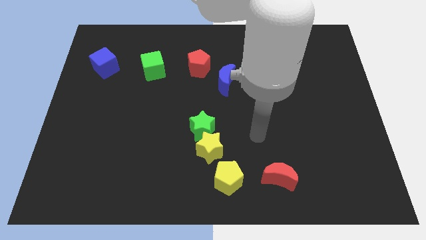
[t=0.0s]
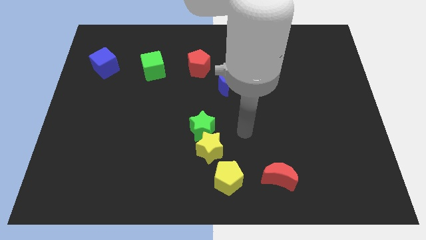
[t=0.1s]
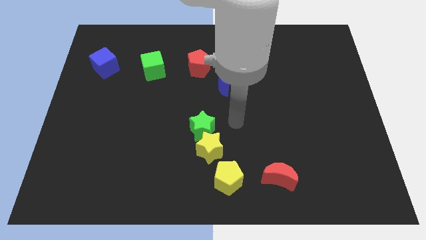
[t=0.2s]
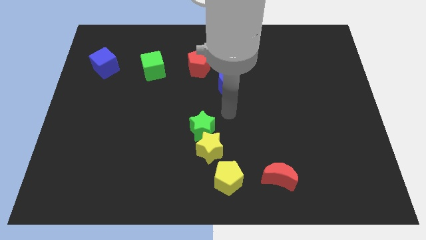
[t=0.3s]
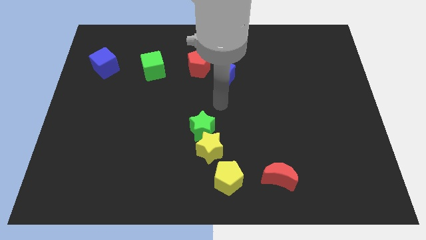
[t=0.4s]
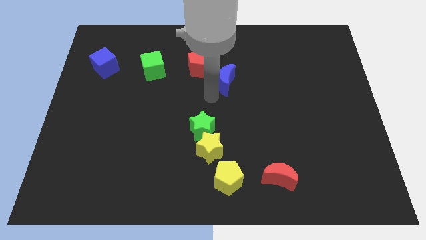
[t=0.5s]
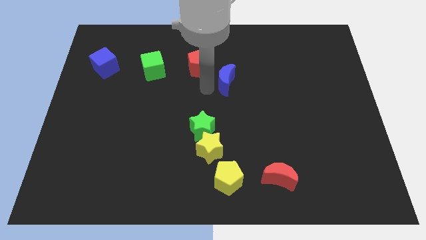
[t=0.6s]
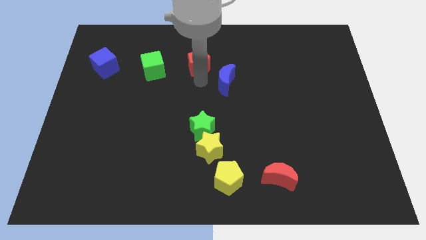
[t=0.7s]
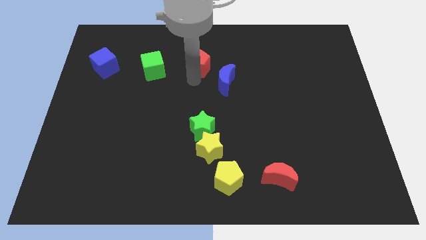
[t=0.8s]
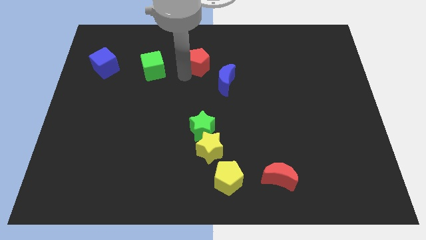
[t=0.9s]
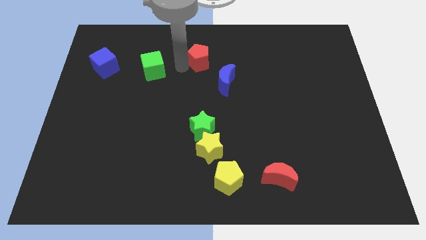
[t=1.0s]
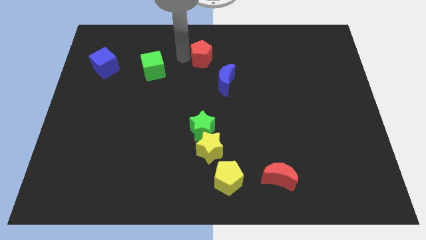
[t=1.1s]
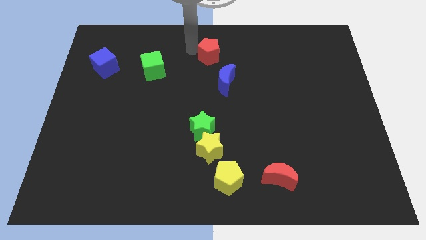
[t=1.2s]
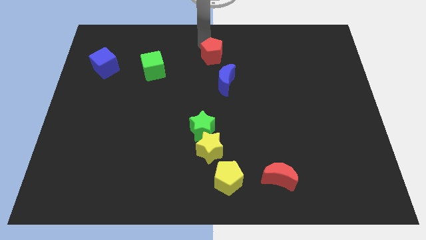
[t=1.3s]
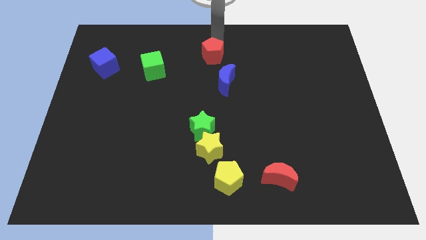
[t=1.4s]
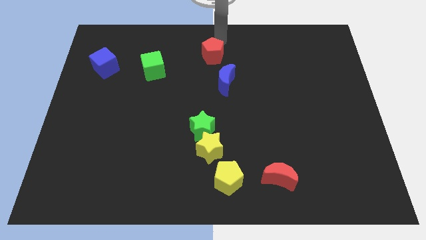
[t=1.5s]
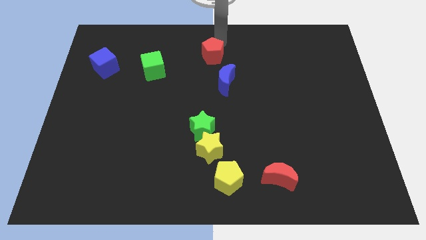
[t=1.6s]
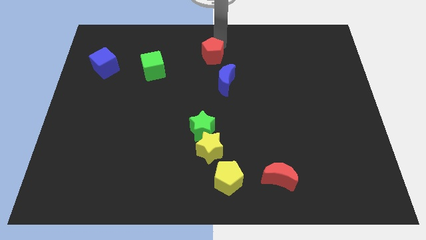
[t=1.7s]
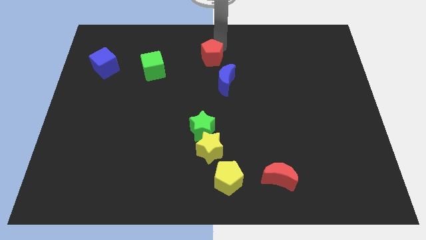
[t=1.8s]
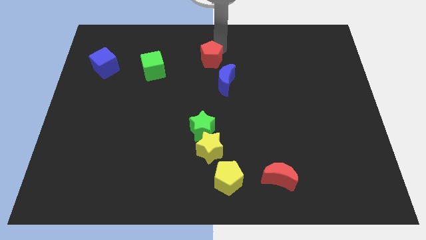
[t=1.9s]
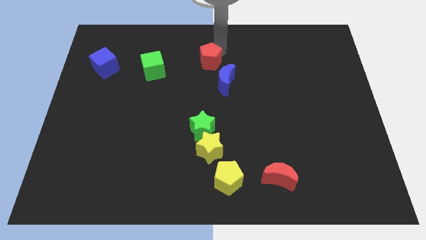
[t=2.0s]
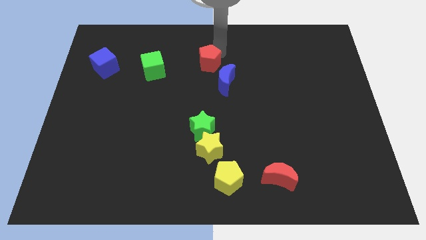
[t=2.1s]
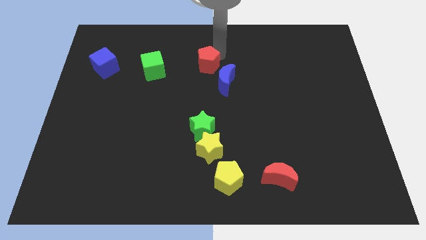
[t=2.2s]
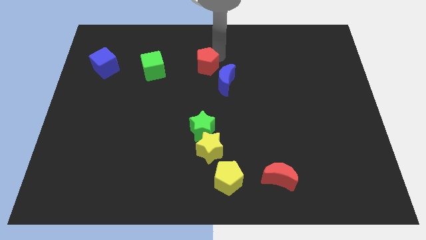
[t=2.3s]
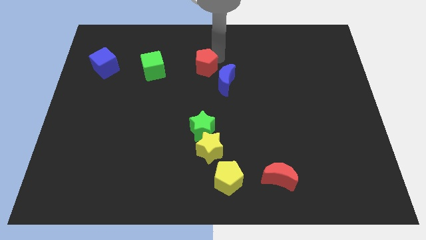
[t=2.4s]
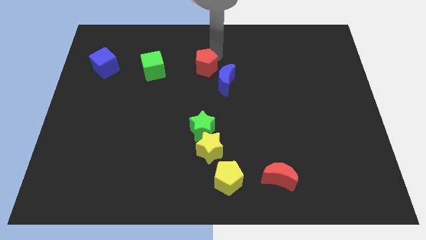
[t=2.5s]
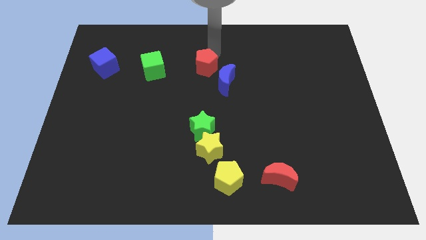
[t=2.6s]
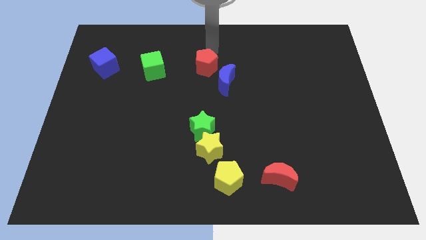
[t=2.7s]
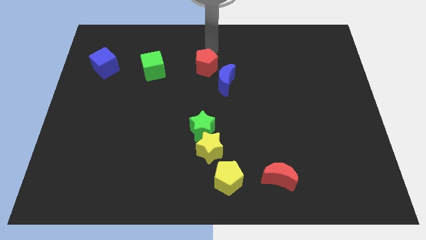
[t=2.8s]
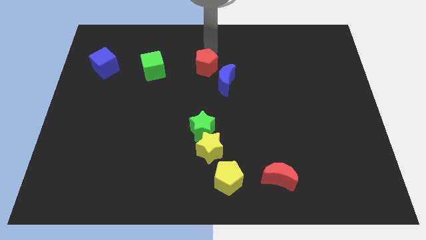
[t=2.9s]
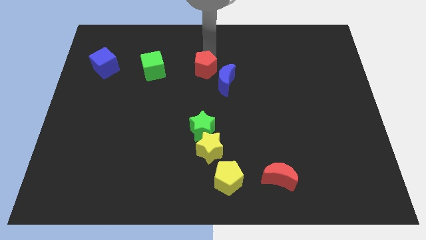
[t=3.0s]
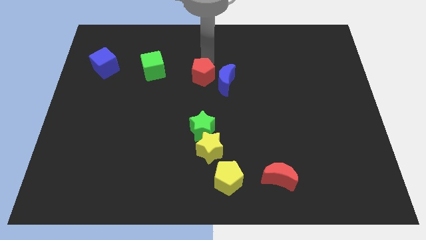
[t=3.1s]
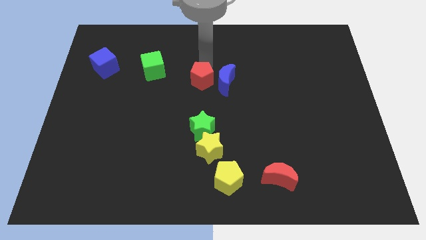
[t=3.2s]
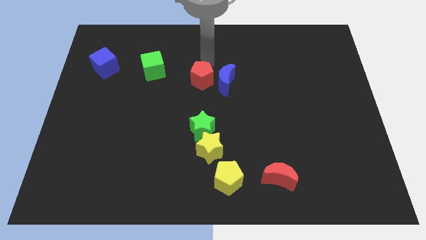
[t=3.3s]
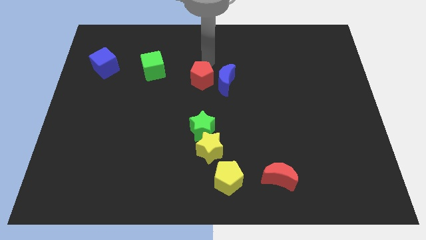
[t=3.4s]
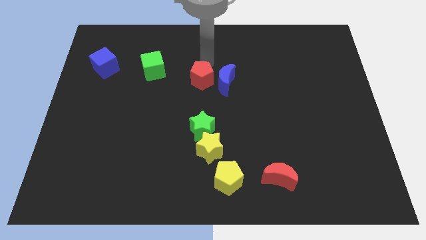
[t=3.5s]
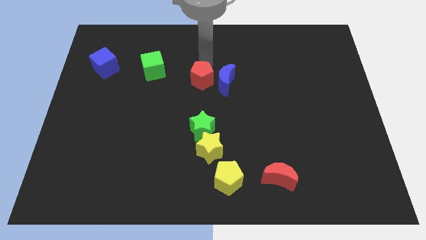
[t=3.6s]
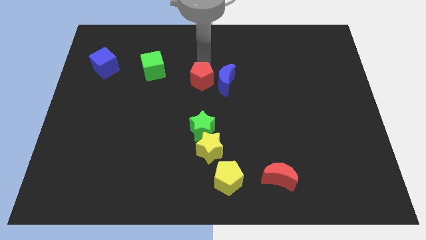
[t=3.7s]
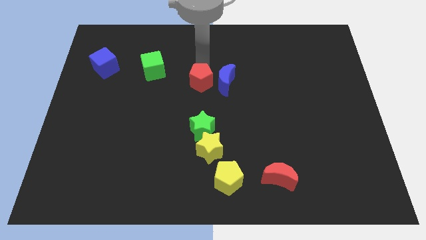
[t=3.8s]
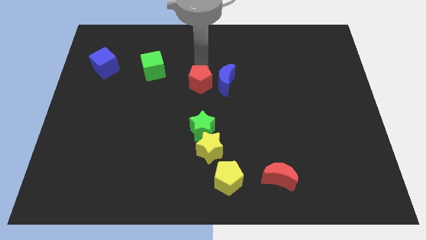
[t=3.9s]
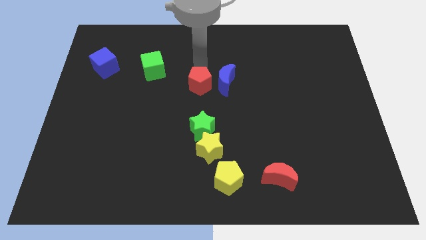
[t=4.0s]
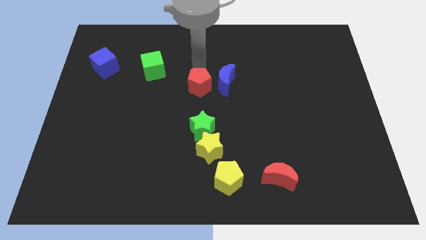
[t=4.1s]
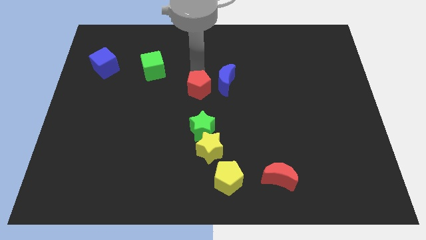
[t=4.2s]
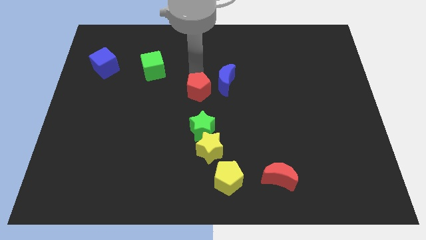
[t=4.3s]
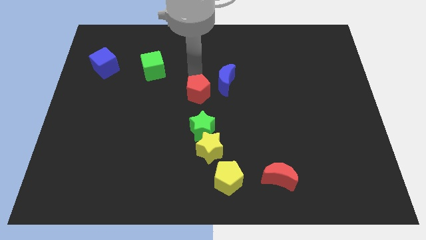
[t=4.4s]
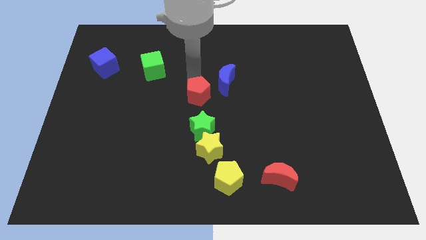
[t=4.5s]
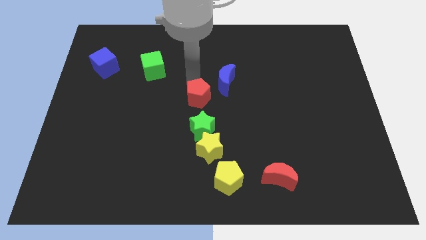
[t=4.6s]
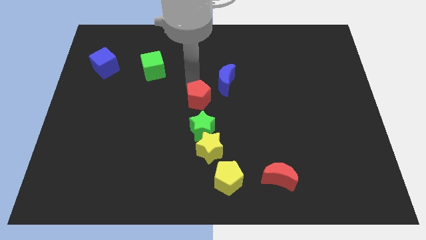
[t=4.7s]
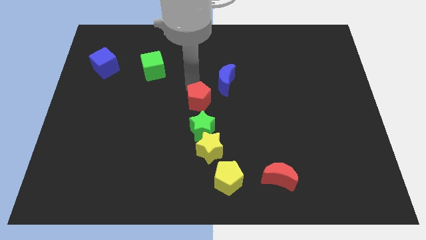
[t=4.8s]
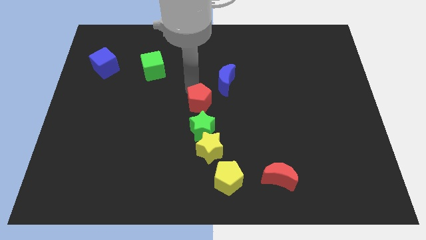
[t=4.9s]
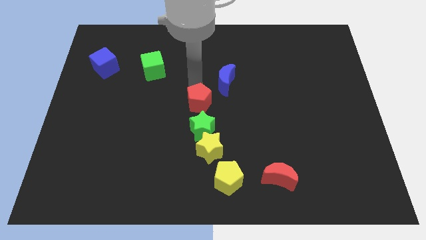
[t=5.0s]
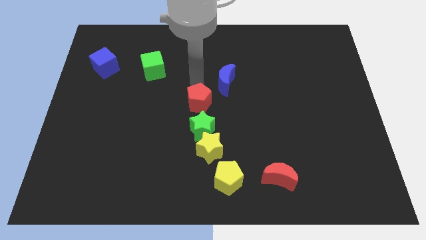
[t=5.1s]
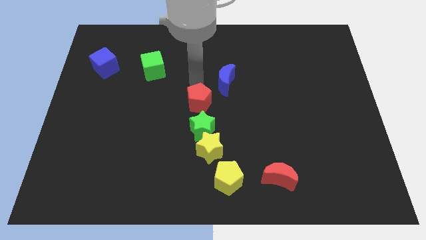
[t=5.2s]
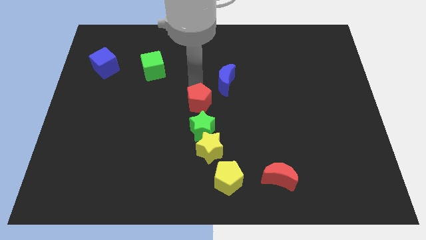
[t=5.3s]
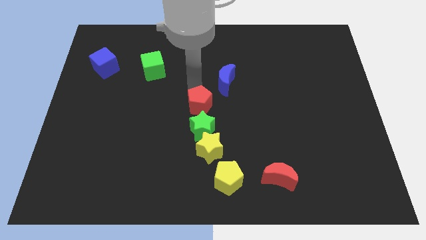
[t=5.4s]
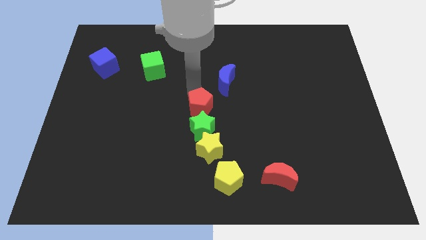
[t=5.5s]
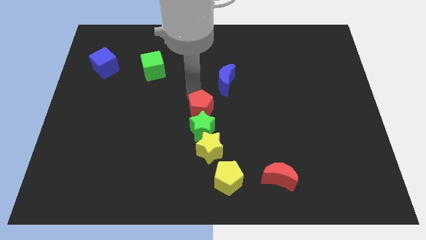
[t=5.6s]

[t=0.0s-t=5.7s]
move the red pentagon next to the green star

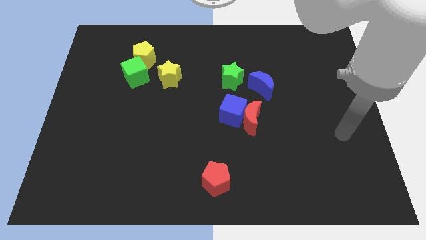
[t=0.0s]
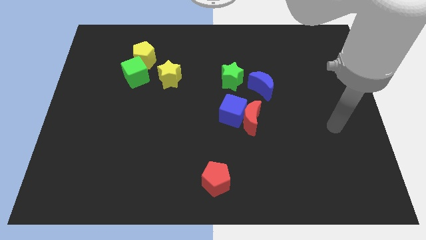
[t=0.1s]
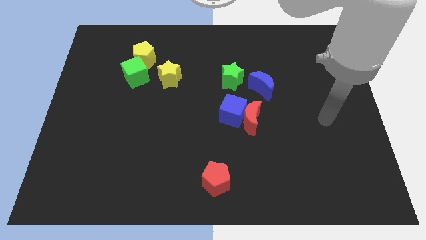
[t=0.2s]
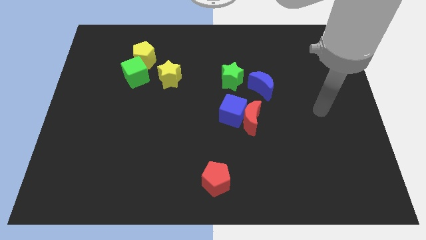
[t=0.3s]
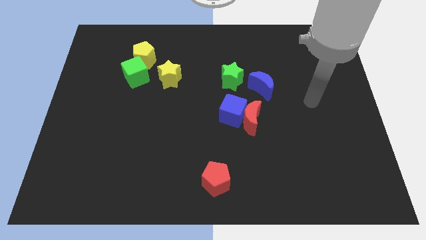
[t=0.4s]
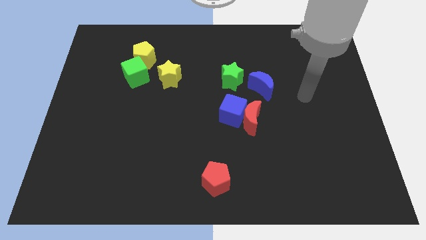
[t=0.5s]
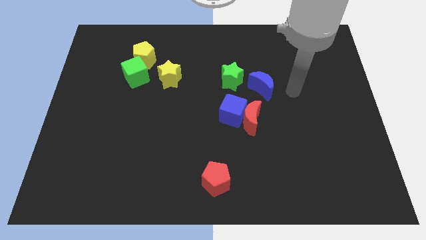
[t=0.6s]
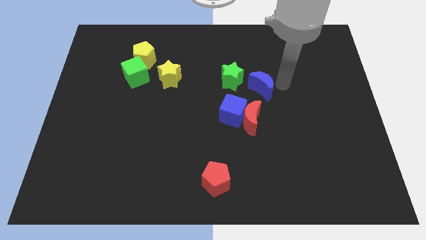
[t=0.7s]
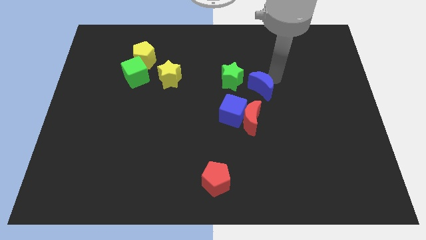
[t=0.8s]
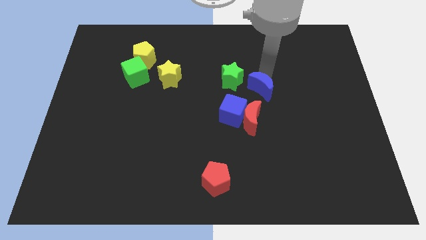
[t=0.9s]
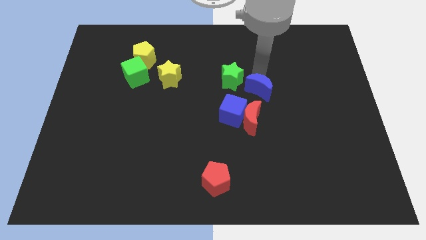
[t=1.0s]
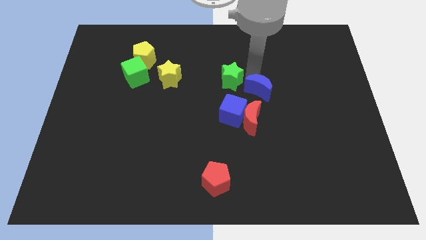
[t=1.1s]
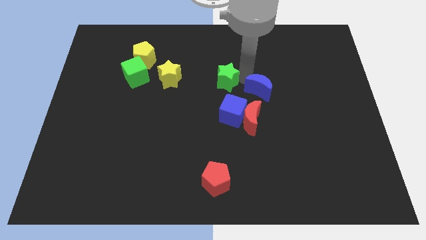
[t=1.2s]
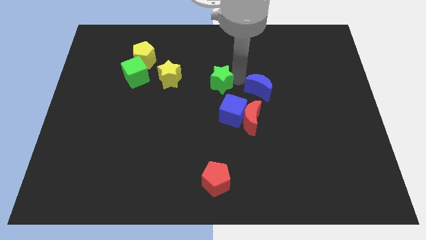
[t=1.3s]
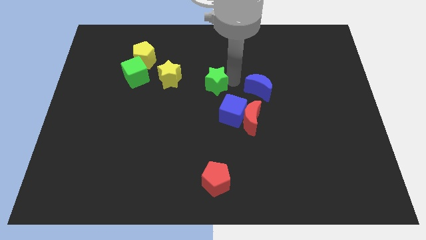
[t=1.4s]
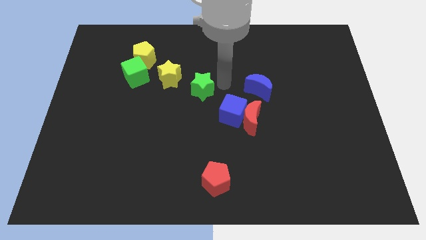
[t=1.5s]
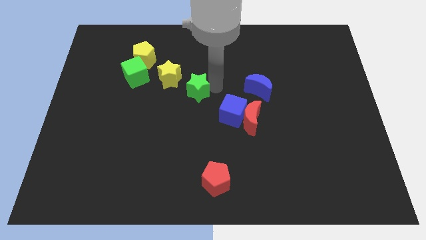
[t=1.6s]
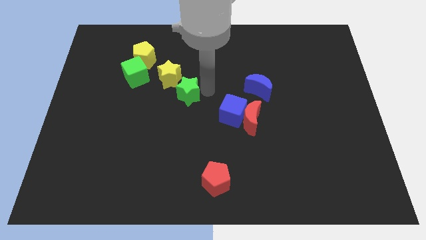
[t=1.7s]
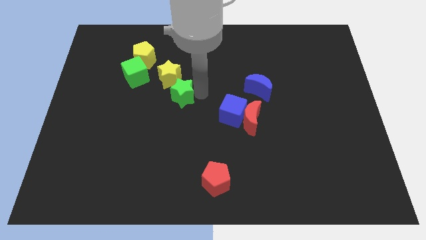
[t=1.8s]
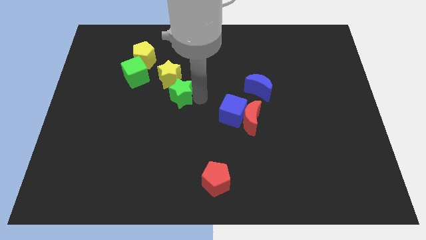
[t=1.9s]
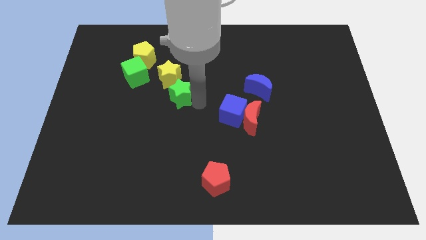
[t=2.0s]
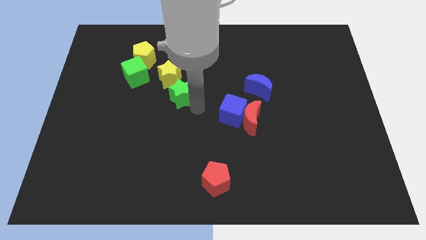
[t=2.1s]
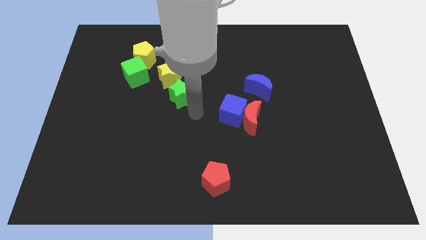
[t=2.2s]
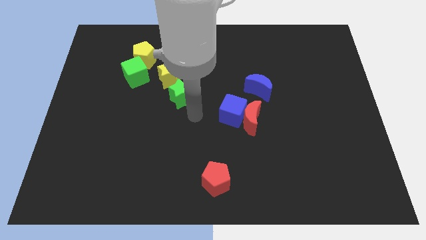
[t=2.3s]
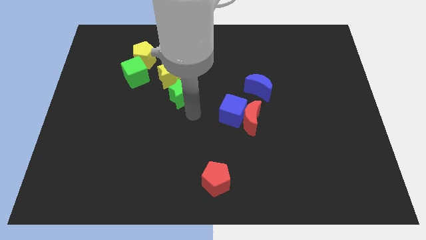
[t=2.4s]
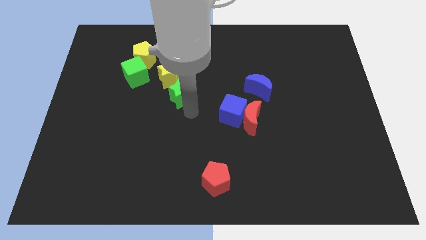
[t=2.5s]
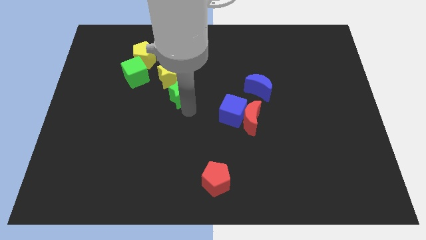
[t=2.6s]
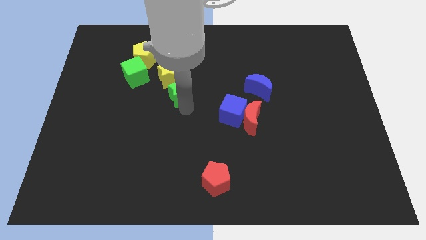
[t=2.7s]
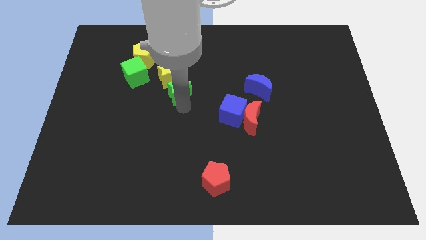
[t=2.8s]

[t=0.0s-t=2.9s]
put the green star next to the yellow star
